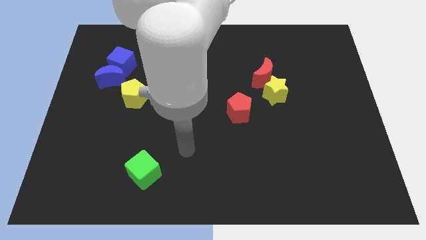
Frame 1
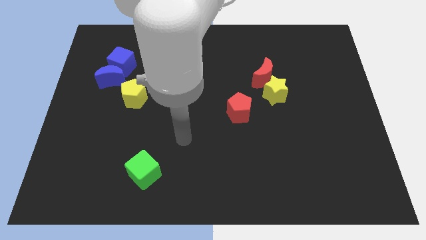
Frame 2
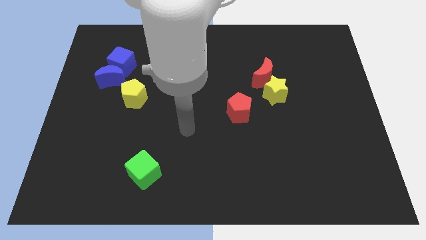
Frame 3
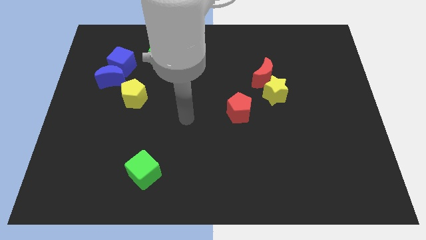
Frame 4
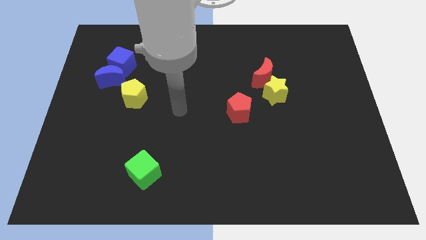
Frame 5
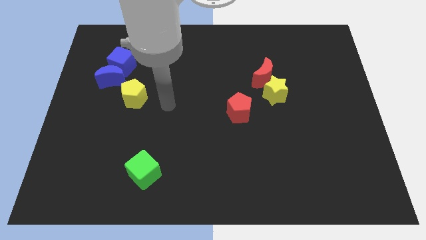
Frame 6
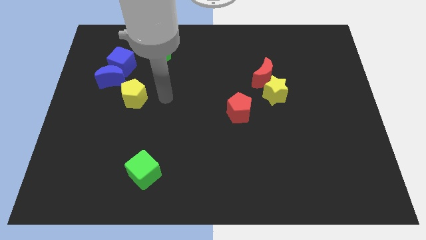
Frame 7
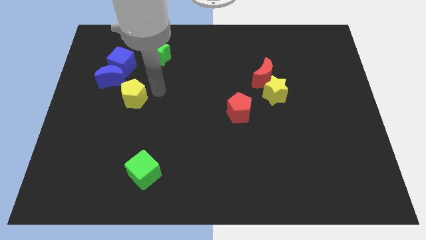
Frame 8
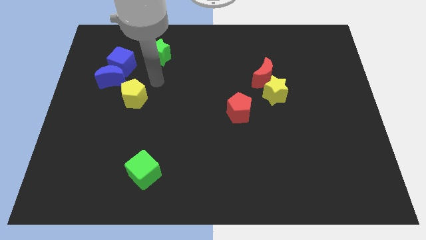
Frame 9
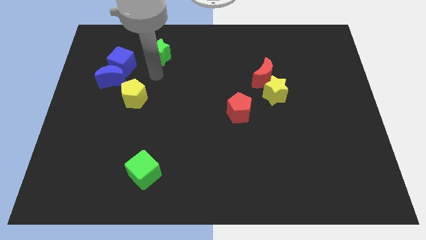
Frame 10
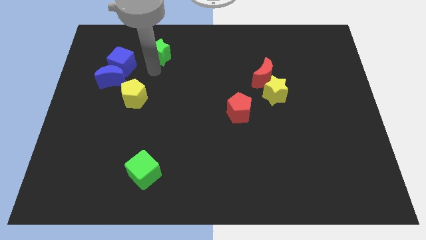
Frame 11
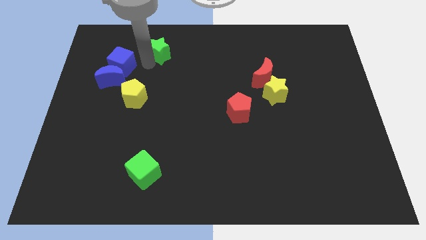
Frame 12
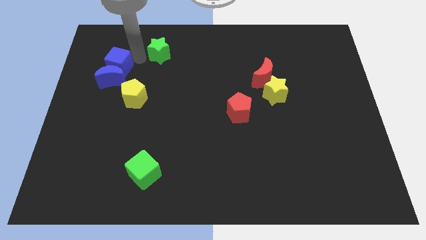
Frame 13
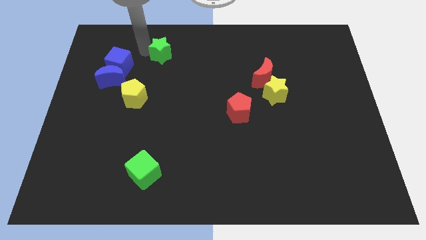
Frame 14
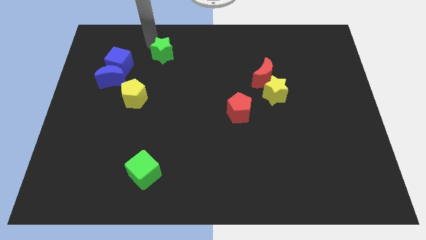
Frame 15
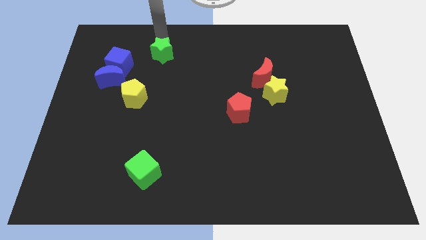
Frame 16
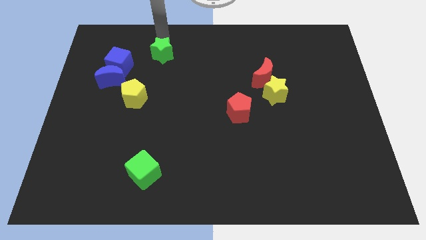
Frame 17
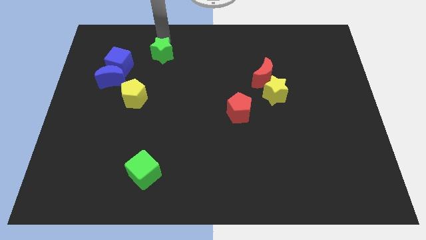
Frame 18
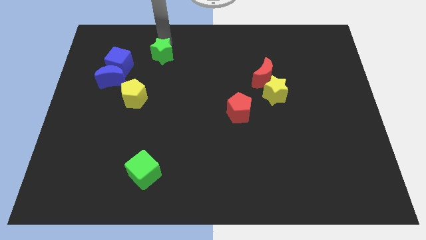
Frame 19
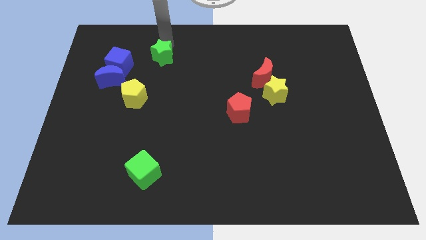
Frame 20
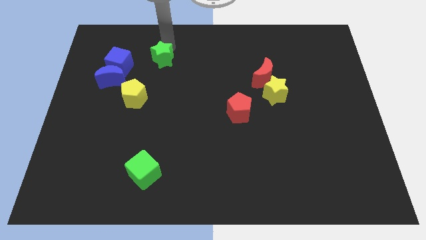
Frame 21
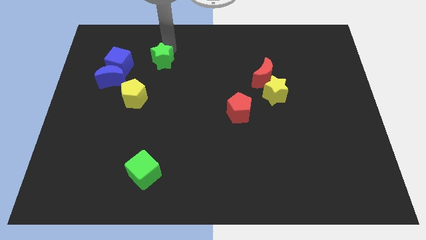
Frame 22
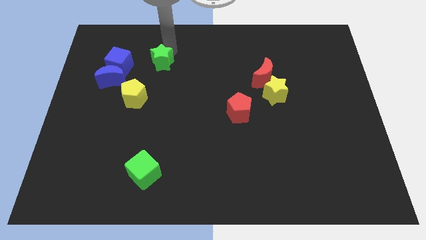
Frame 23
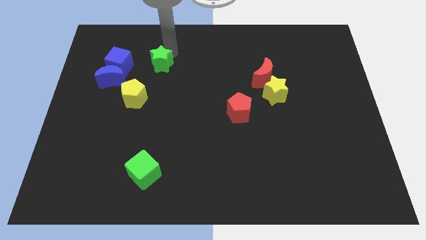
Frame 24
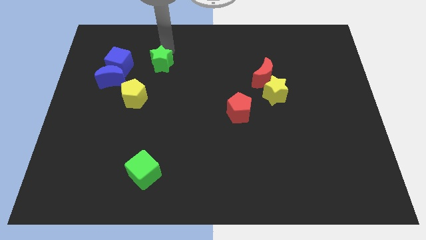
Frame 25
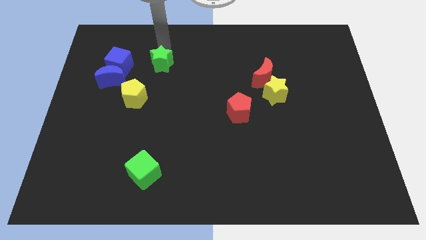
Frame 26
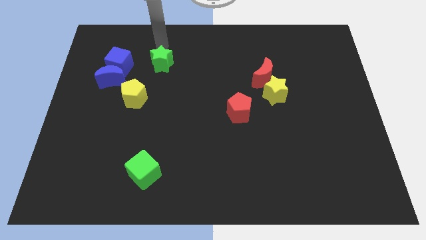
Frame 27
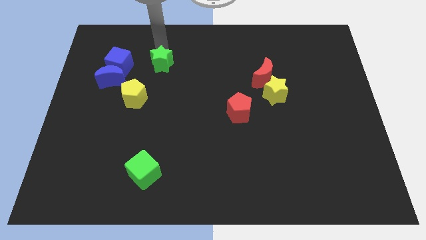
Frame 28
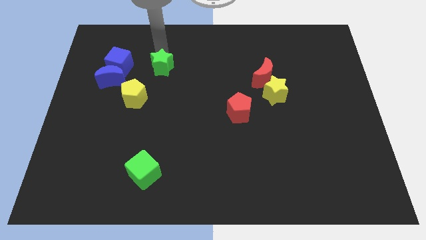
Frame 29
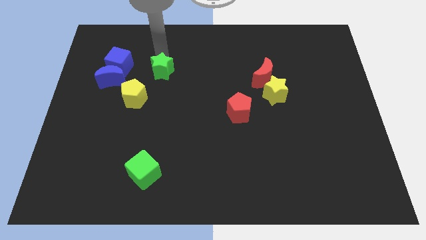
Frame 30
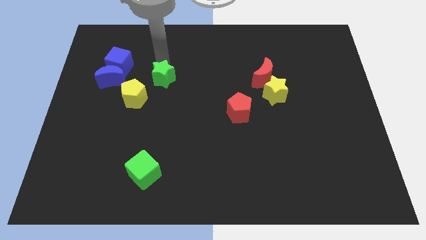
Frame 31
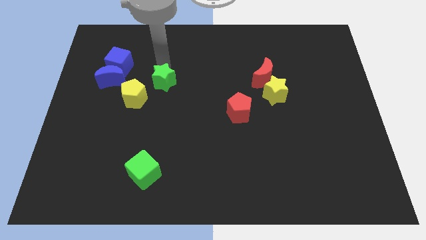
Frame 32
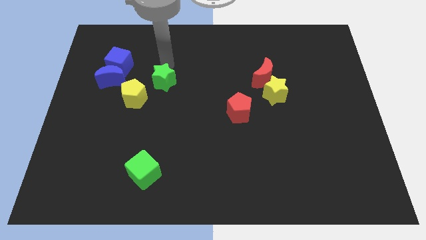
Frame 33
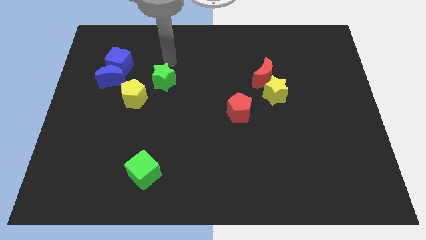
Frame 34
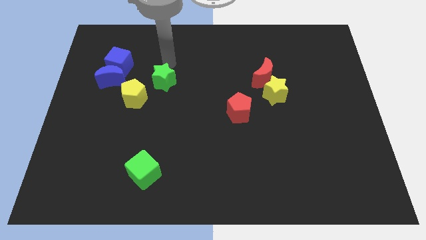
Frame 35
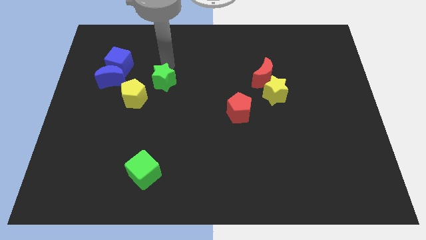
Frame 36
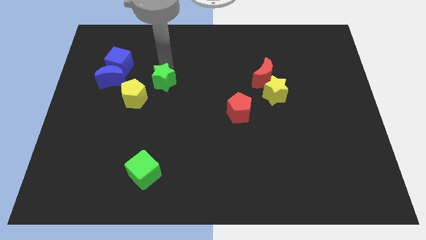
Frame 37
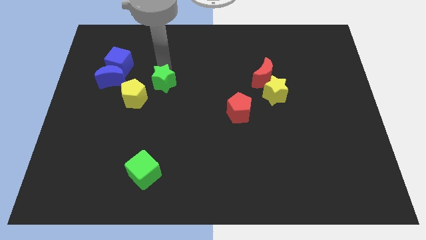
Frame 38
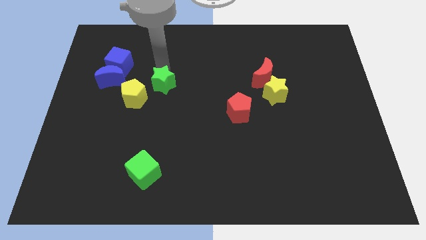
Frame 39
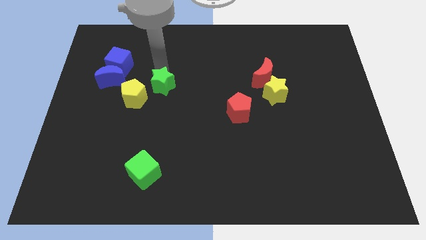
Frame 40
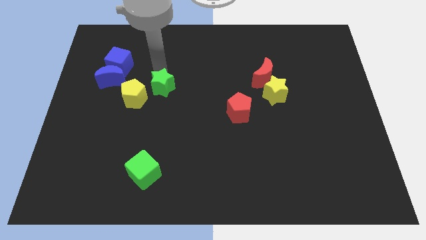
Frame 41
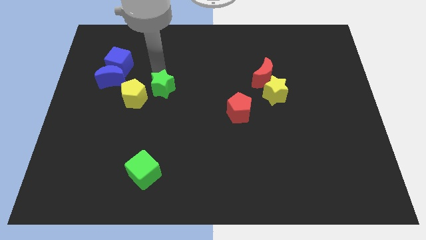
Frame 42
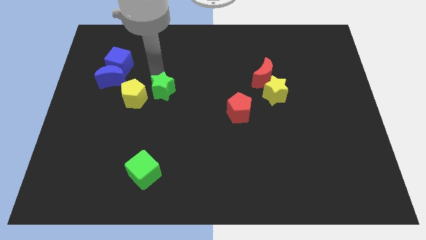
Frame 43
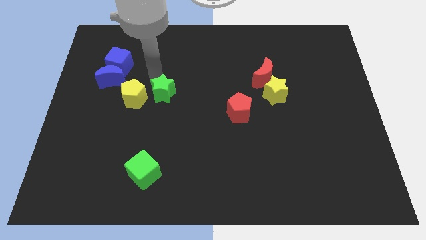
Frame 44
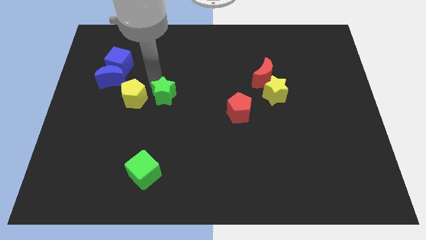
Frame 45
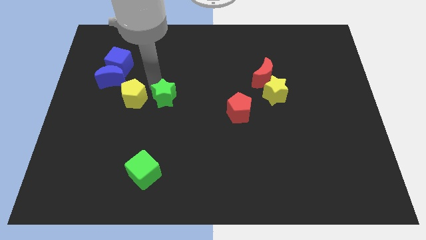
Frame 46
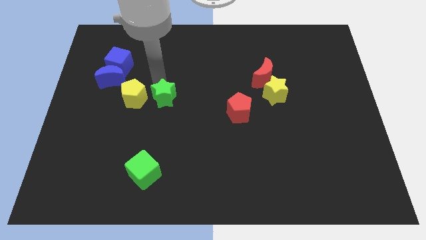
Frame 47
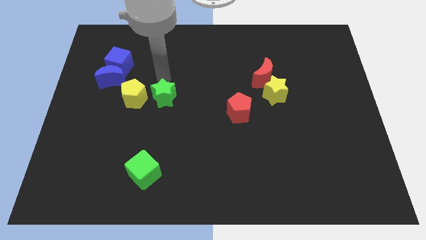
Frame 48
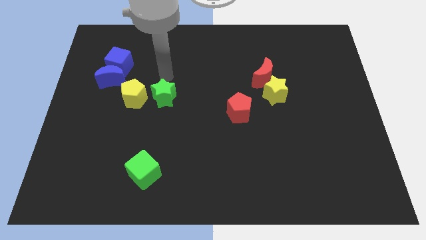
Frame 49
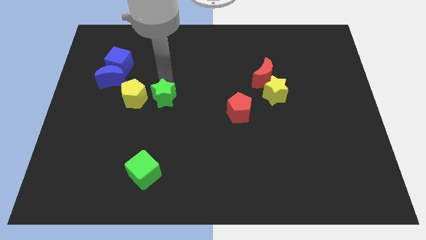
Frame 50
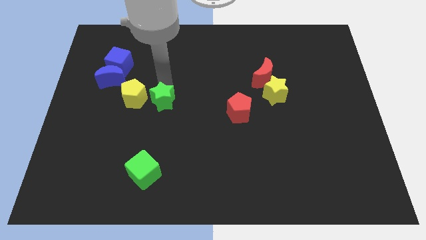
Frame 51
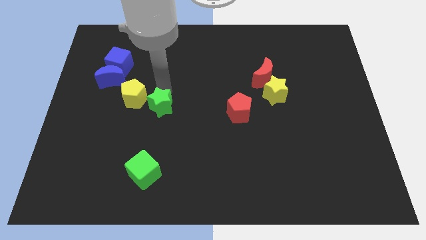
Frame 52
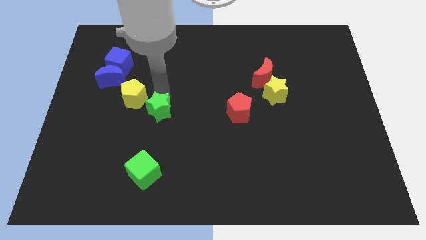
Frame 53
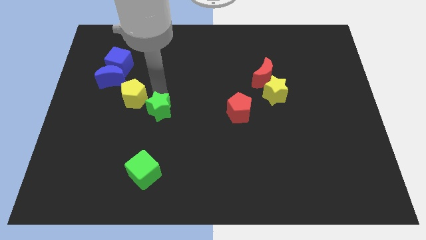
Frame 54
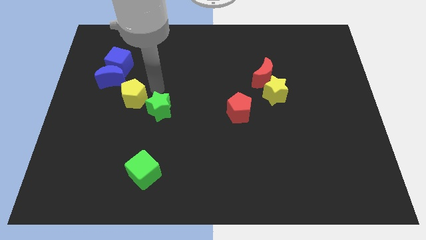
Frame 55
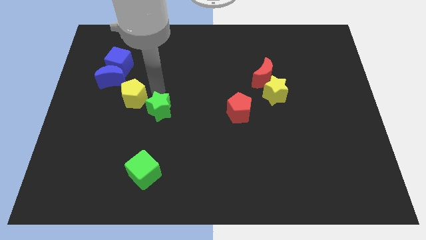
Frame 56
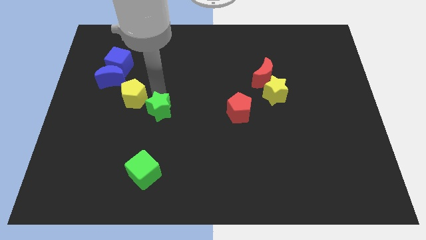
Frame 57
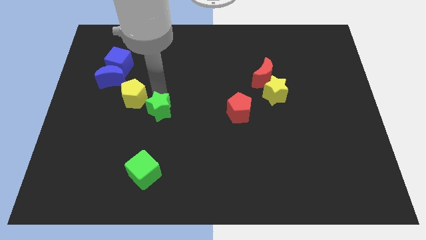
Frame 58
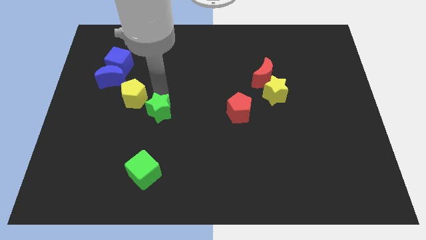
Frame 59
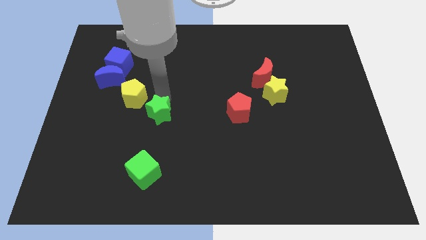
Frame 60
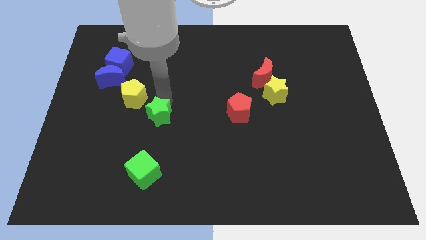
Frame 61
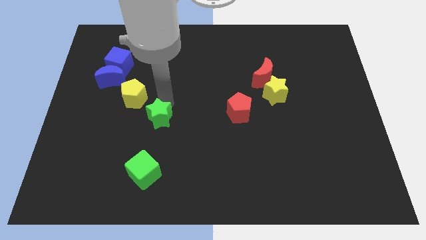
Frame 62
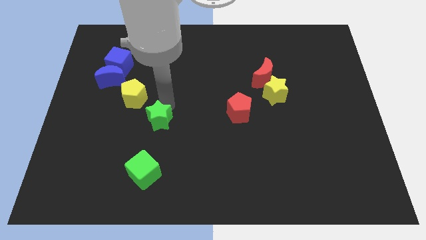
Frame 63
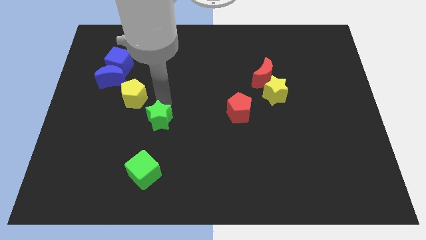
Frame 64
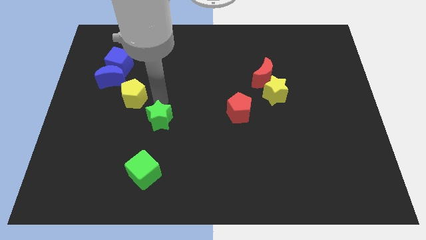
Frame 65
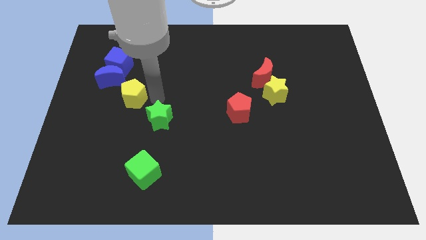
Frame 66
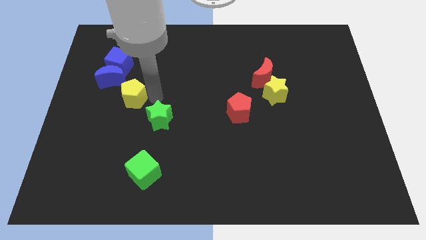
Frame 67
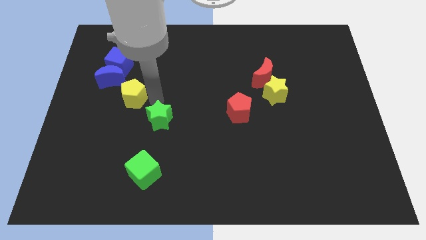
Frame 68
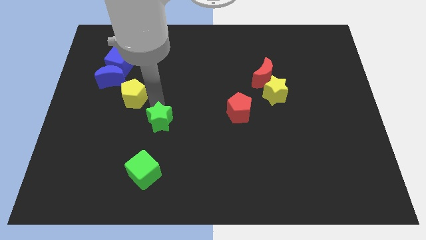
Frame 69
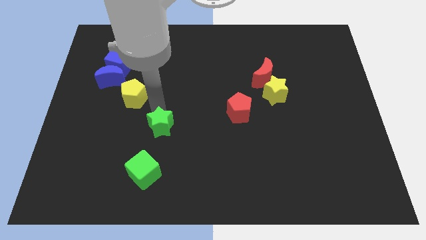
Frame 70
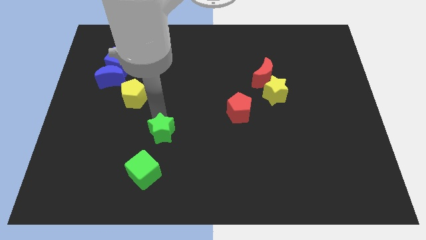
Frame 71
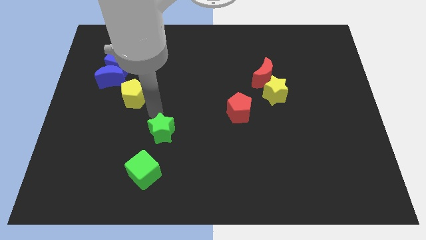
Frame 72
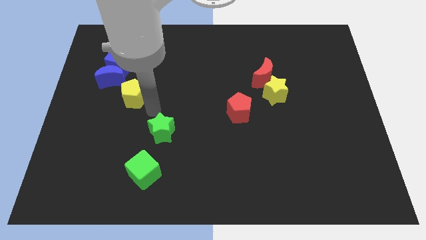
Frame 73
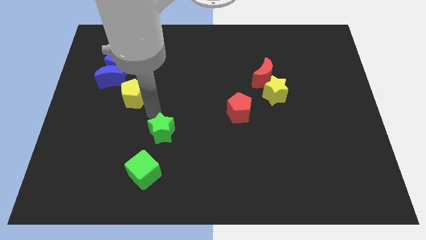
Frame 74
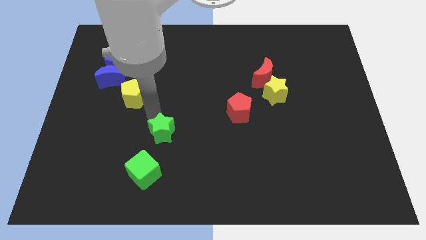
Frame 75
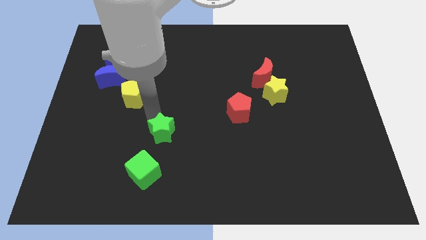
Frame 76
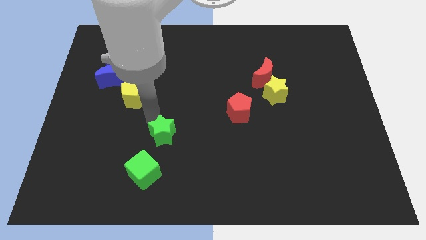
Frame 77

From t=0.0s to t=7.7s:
slide the green star diagonally up and to the right of the green cube
